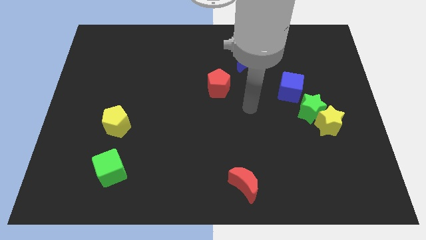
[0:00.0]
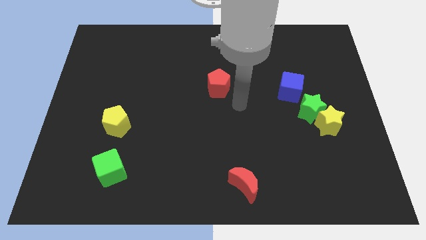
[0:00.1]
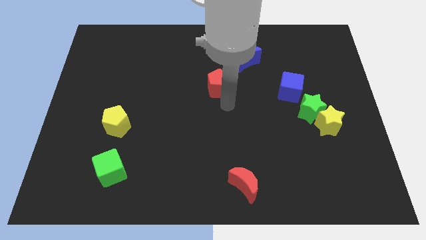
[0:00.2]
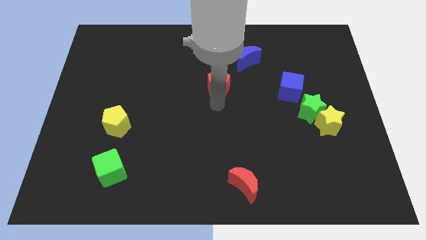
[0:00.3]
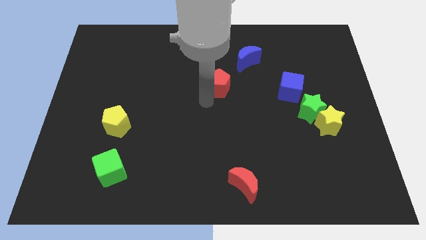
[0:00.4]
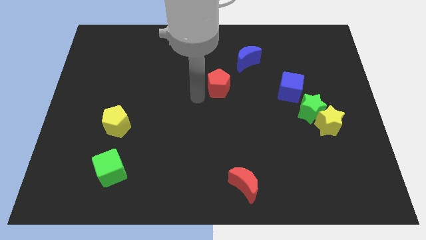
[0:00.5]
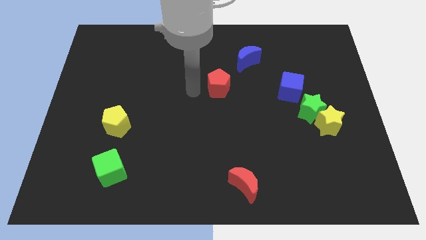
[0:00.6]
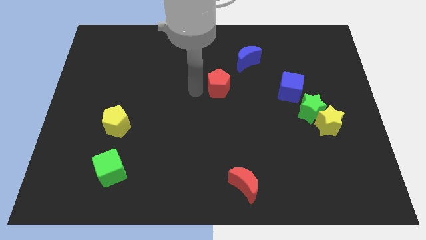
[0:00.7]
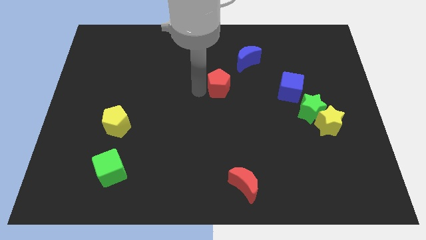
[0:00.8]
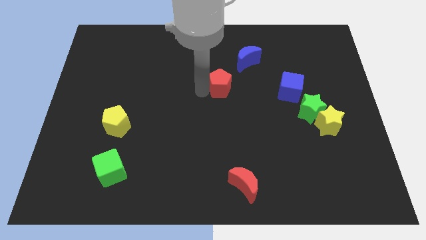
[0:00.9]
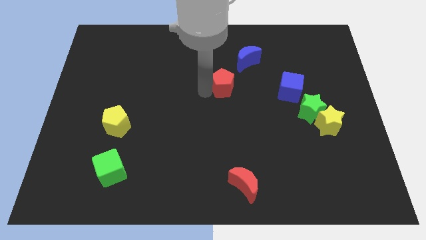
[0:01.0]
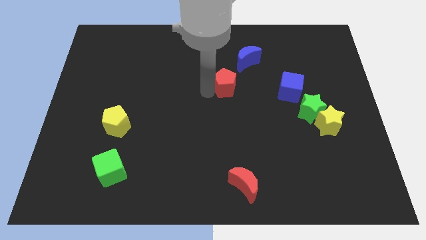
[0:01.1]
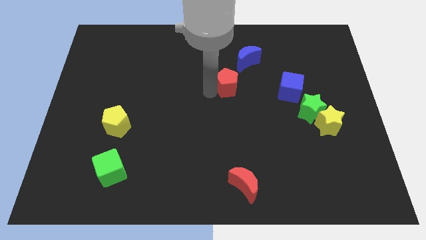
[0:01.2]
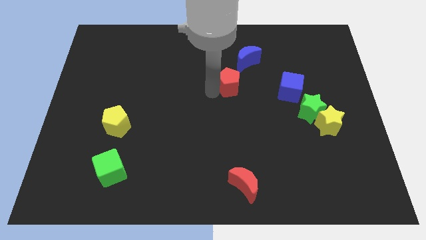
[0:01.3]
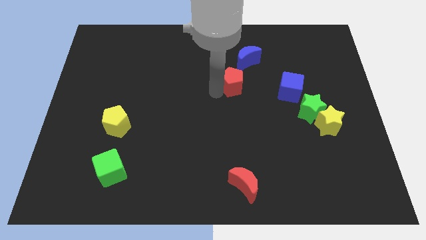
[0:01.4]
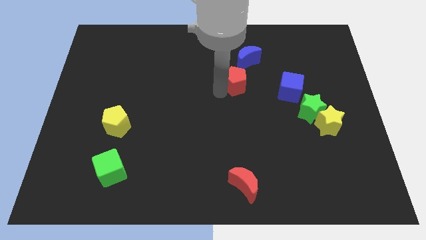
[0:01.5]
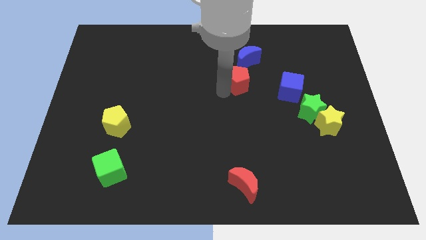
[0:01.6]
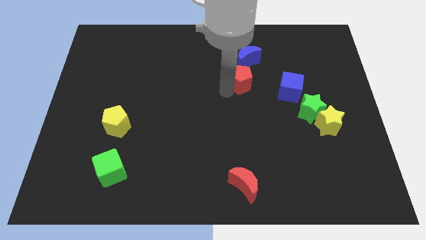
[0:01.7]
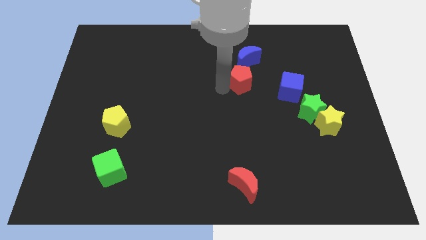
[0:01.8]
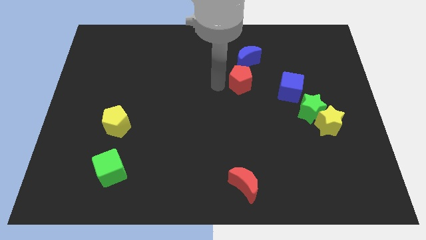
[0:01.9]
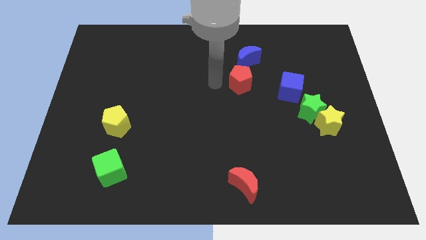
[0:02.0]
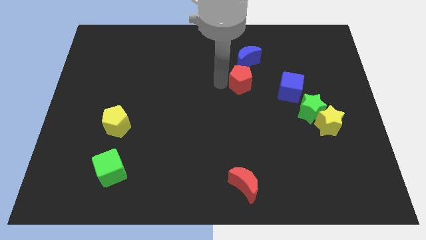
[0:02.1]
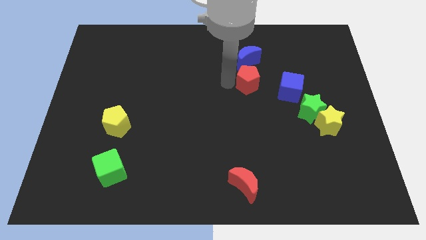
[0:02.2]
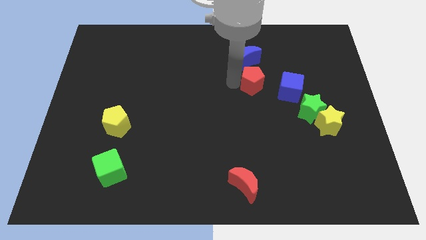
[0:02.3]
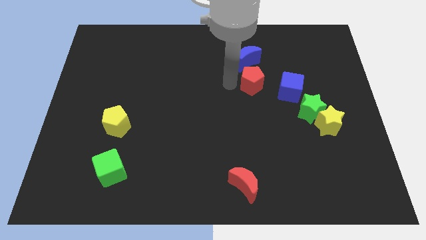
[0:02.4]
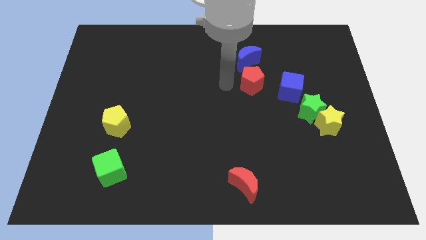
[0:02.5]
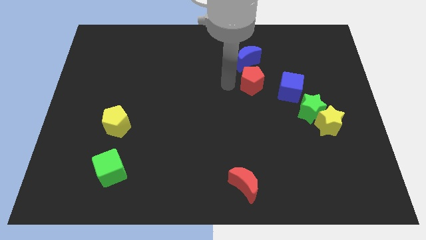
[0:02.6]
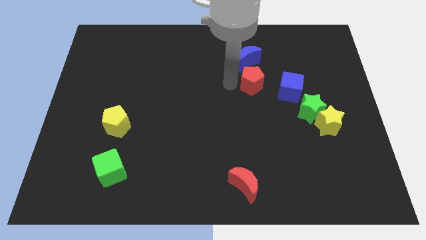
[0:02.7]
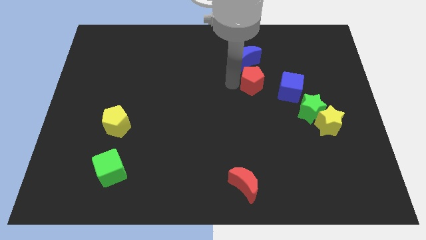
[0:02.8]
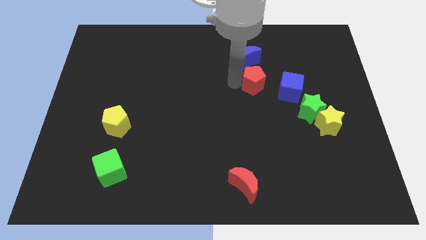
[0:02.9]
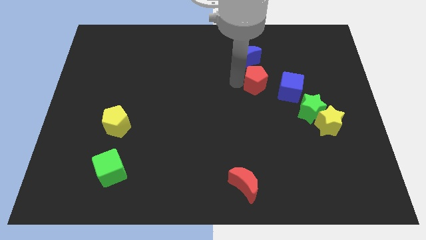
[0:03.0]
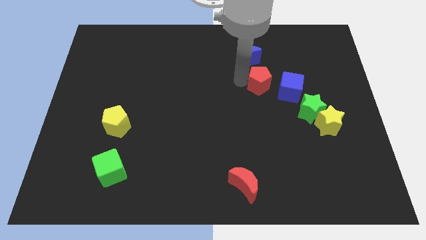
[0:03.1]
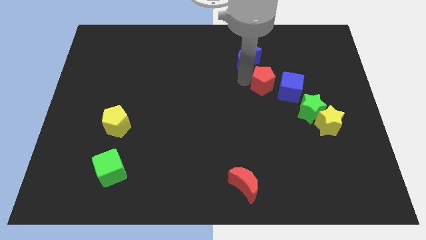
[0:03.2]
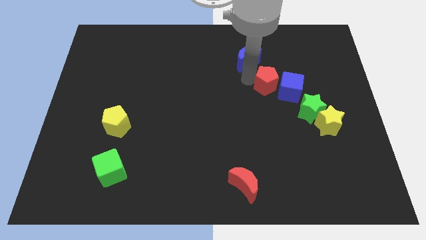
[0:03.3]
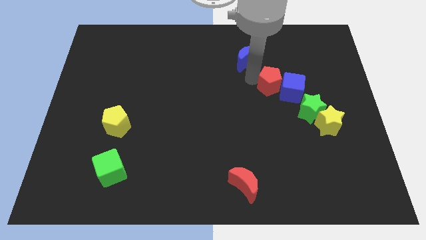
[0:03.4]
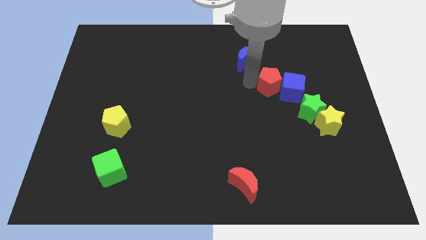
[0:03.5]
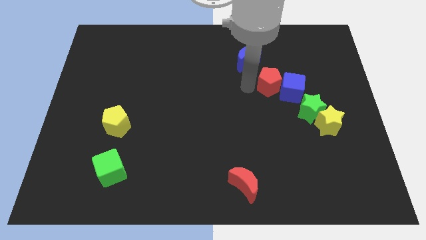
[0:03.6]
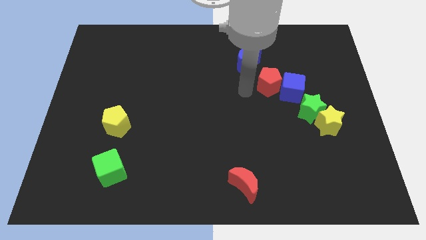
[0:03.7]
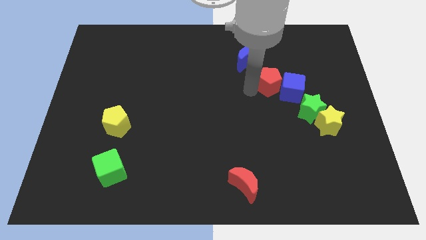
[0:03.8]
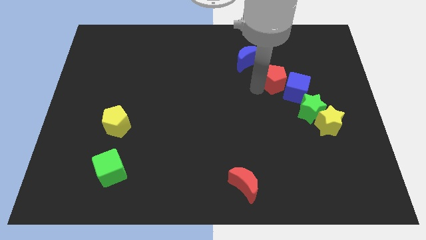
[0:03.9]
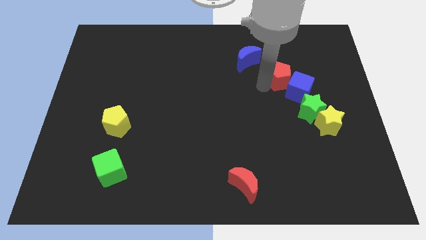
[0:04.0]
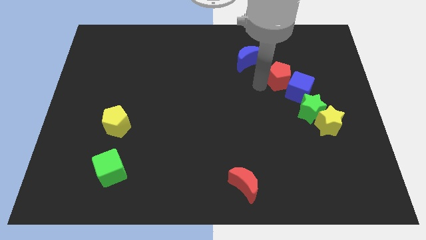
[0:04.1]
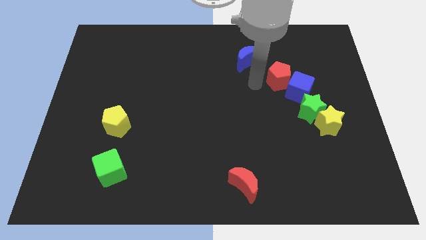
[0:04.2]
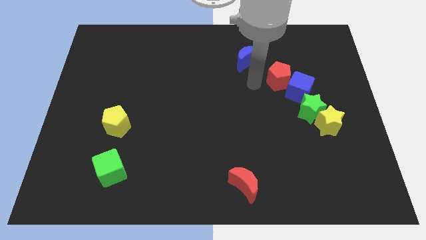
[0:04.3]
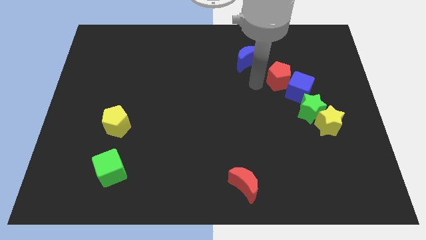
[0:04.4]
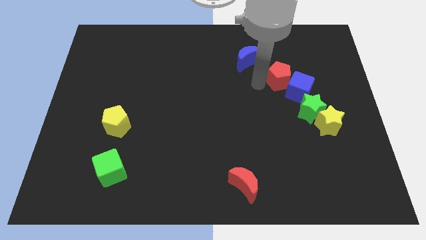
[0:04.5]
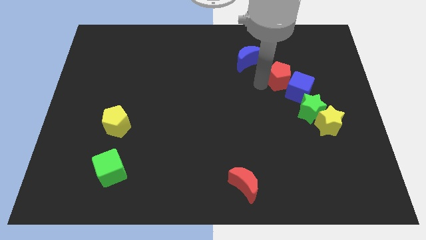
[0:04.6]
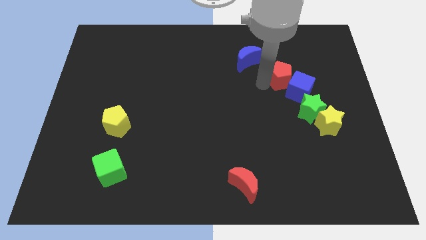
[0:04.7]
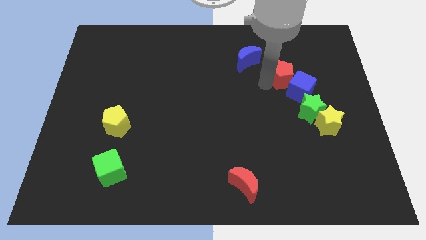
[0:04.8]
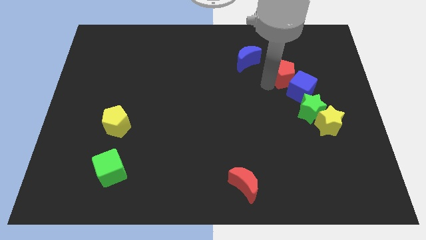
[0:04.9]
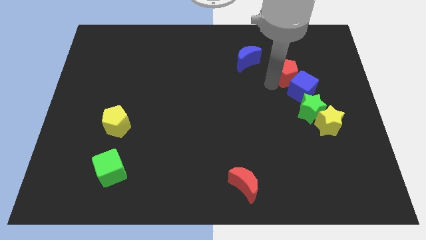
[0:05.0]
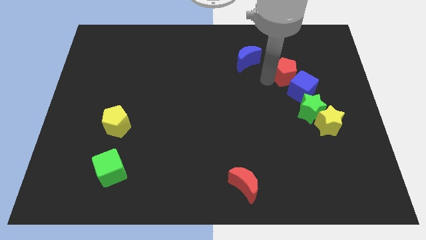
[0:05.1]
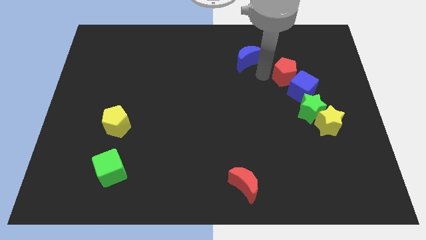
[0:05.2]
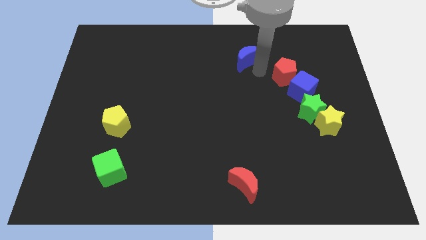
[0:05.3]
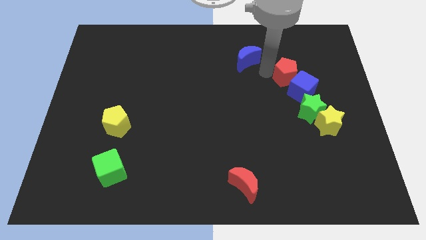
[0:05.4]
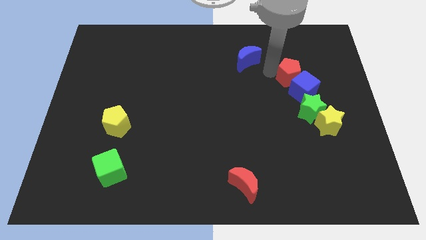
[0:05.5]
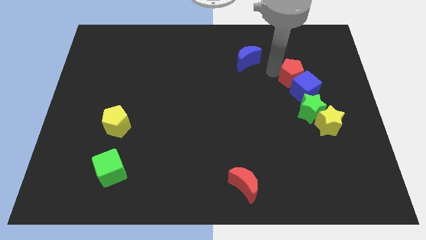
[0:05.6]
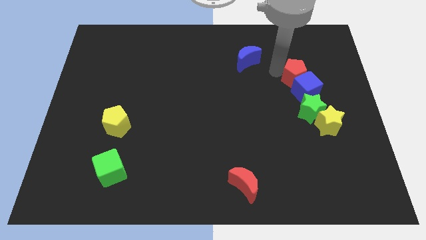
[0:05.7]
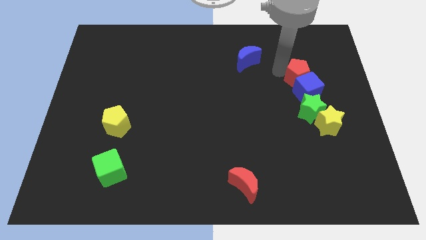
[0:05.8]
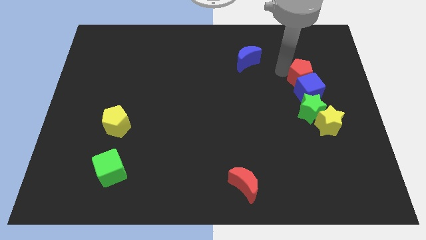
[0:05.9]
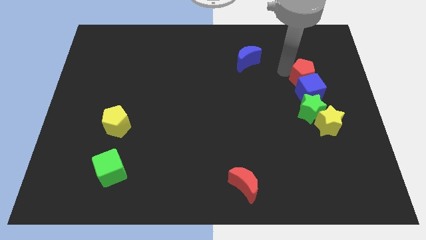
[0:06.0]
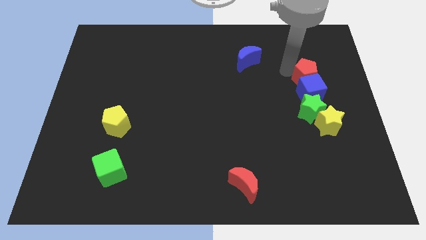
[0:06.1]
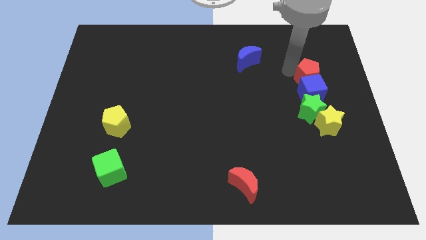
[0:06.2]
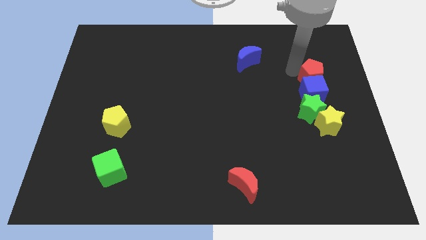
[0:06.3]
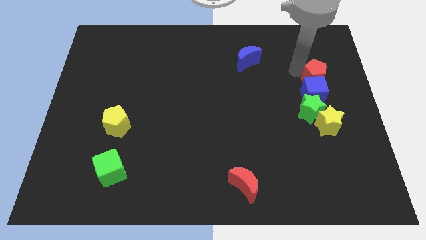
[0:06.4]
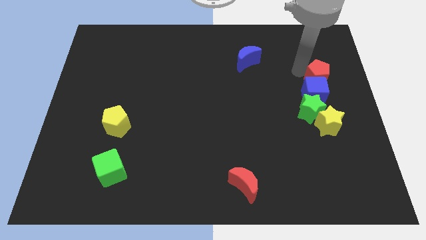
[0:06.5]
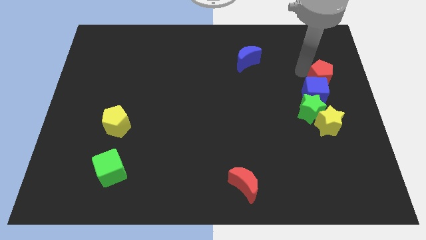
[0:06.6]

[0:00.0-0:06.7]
move the red pentagon to the center right

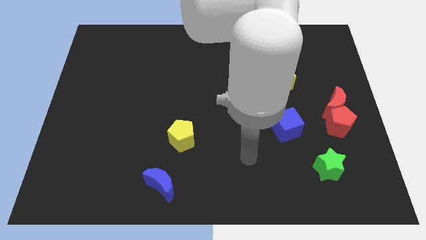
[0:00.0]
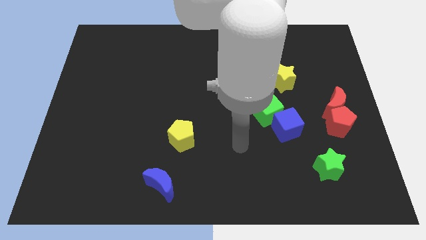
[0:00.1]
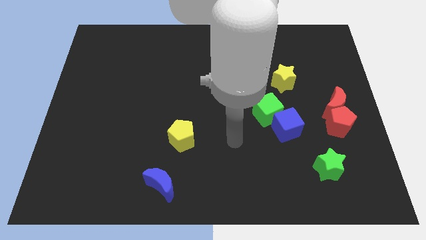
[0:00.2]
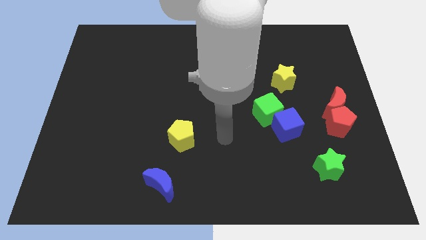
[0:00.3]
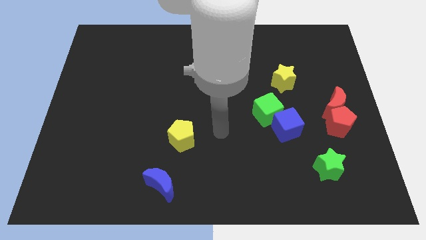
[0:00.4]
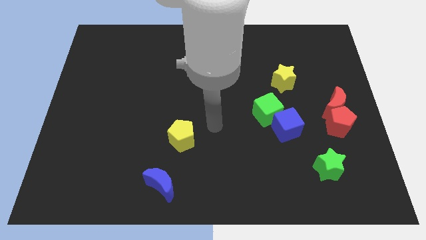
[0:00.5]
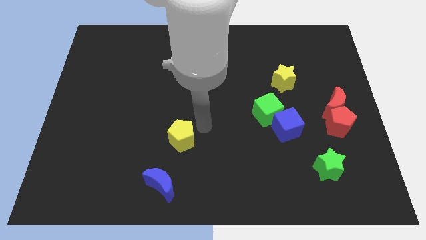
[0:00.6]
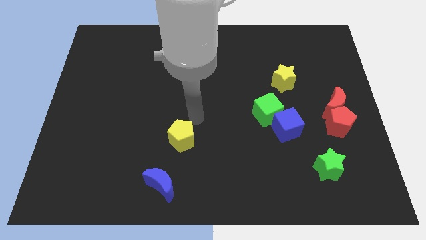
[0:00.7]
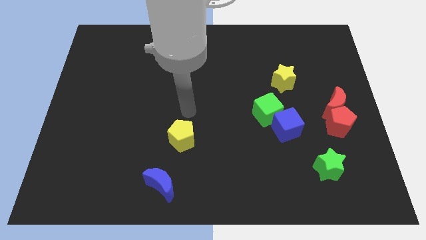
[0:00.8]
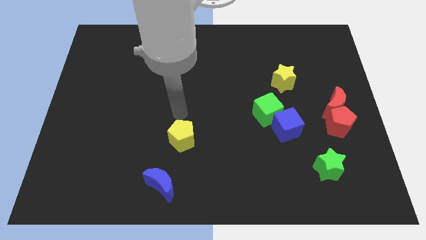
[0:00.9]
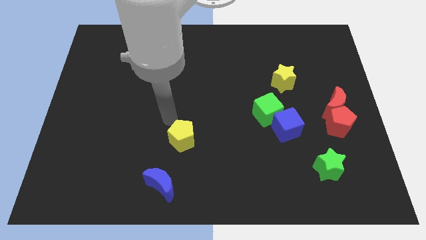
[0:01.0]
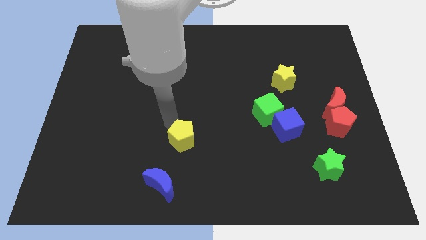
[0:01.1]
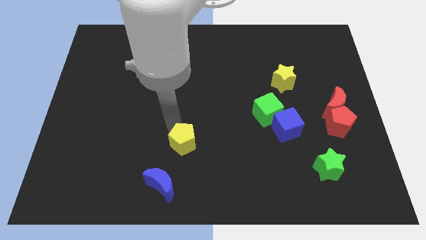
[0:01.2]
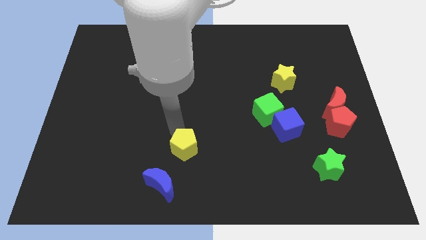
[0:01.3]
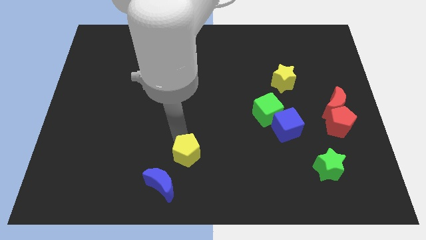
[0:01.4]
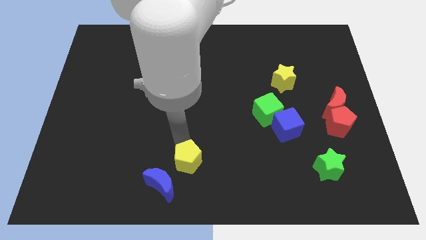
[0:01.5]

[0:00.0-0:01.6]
move the yellow pentagon to the bottom side
